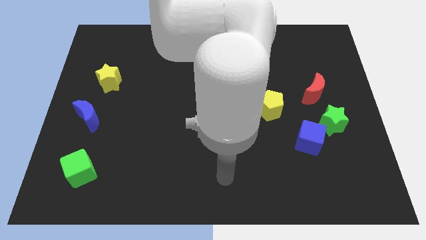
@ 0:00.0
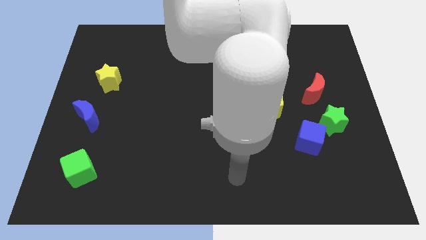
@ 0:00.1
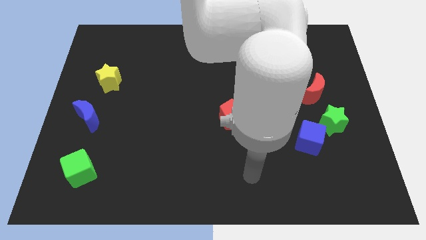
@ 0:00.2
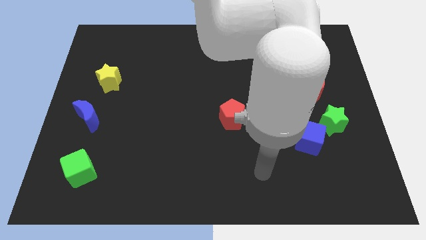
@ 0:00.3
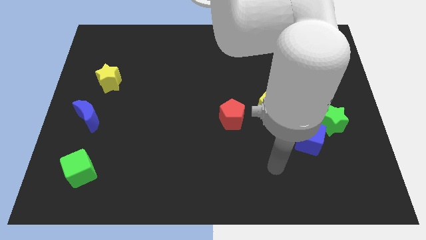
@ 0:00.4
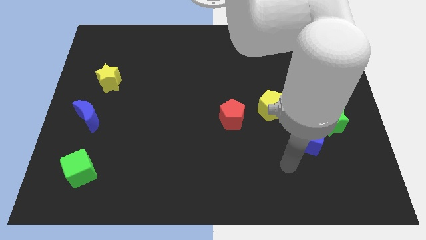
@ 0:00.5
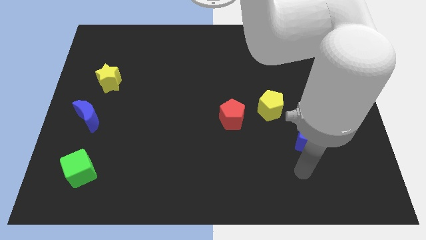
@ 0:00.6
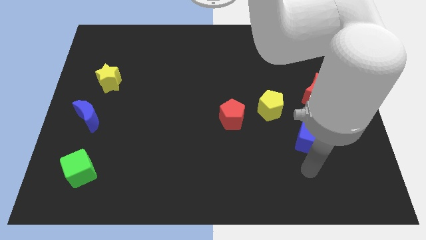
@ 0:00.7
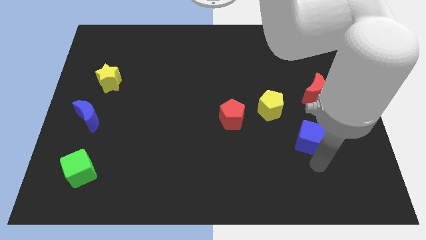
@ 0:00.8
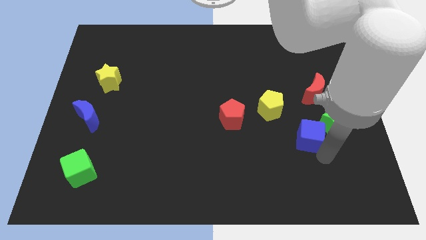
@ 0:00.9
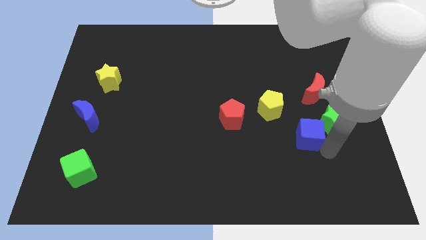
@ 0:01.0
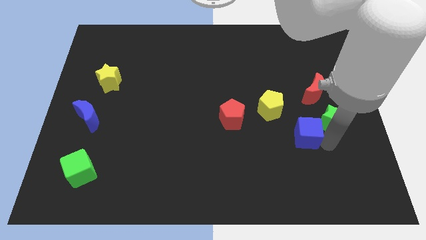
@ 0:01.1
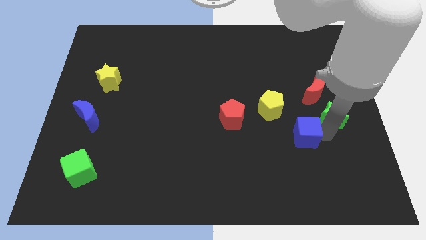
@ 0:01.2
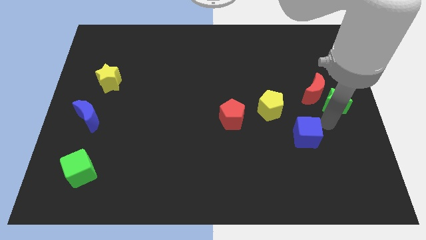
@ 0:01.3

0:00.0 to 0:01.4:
pull the blue cube apart from the green star

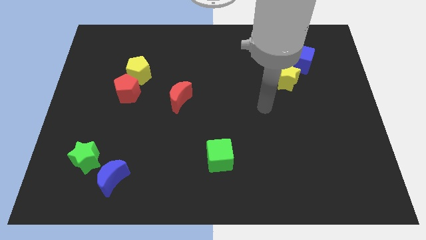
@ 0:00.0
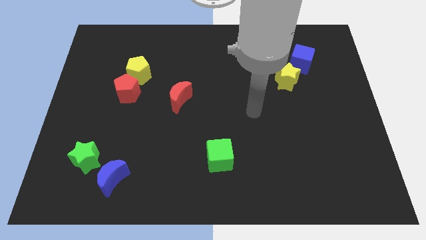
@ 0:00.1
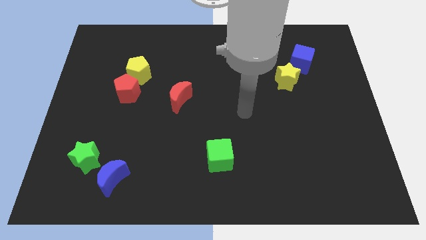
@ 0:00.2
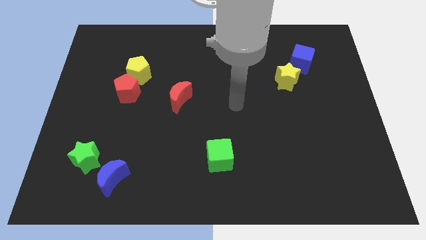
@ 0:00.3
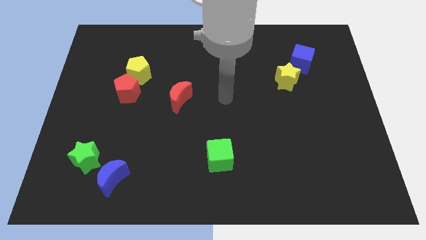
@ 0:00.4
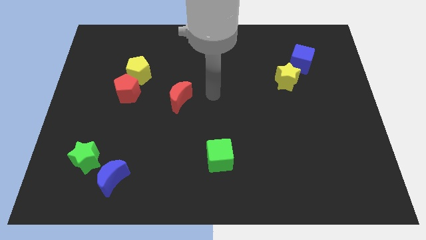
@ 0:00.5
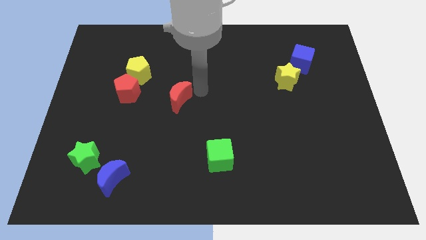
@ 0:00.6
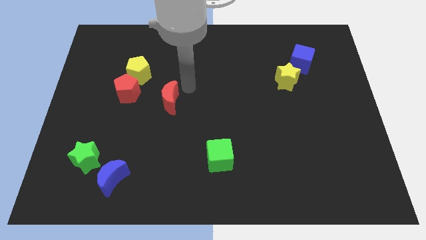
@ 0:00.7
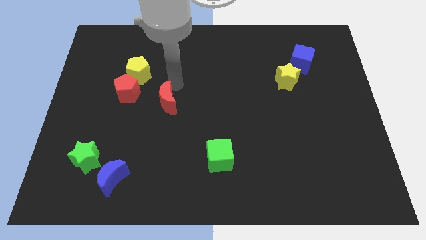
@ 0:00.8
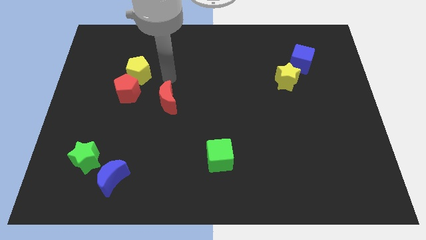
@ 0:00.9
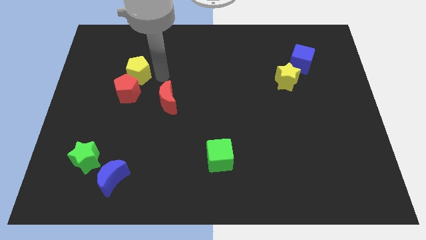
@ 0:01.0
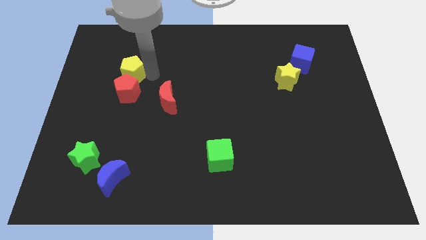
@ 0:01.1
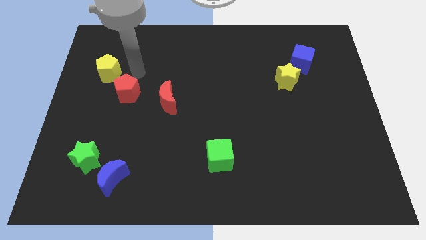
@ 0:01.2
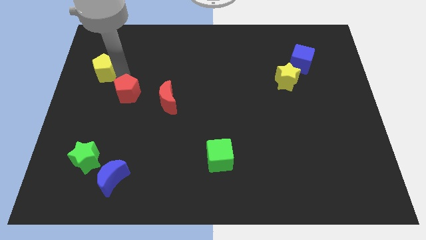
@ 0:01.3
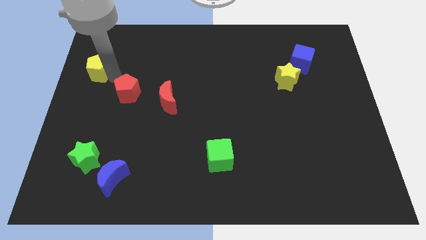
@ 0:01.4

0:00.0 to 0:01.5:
separate the red pentagon from the yellow pentagon

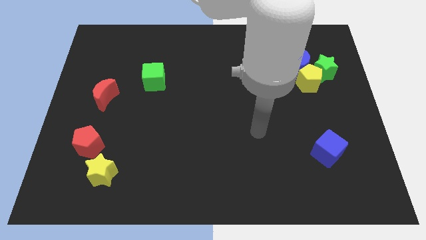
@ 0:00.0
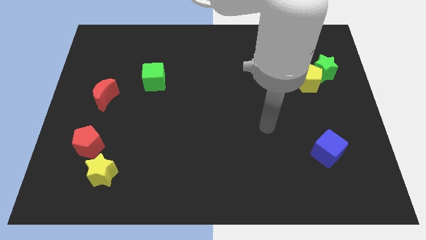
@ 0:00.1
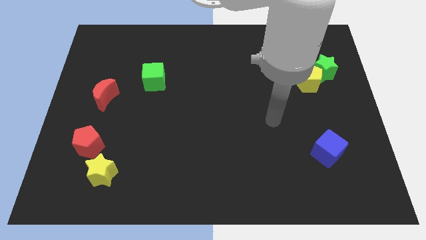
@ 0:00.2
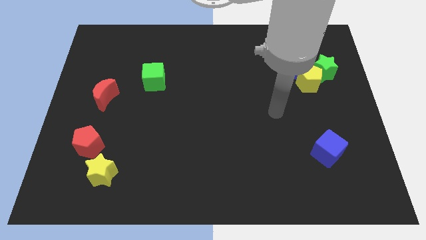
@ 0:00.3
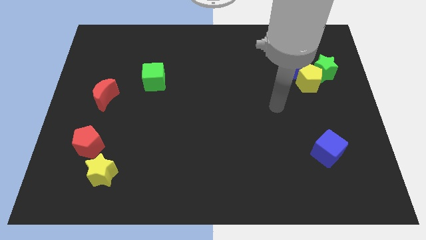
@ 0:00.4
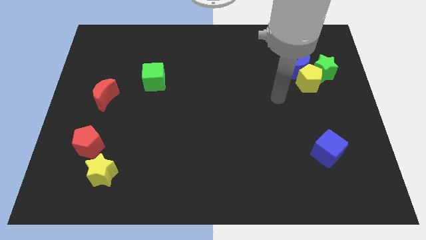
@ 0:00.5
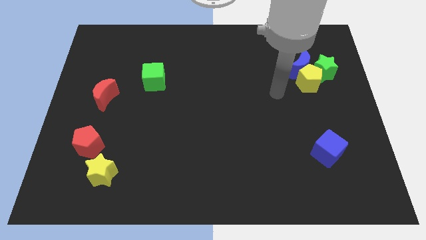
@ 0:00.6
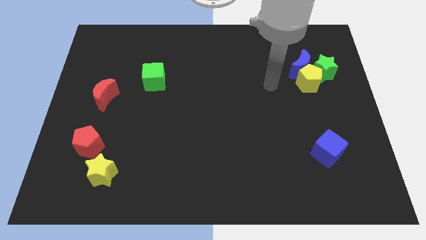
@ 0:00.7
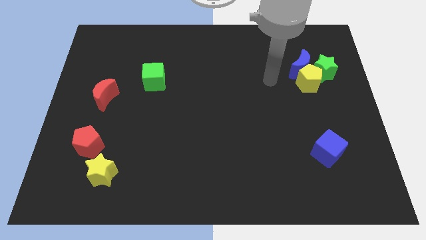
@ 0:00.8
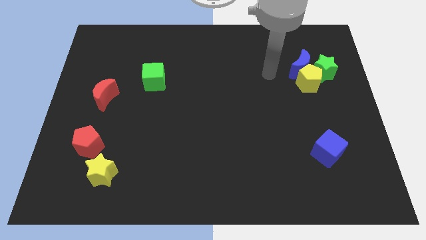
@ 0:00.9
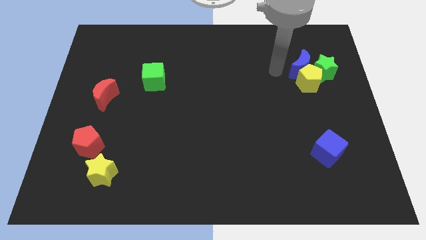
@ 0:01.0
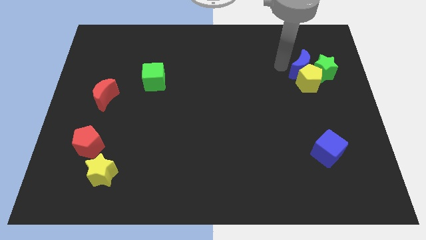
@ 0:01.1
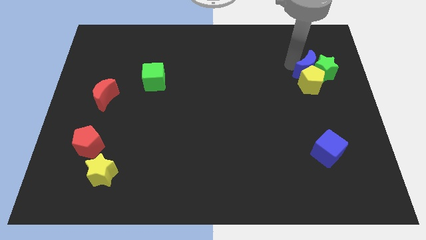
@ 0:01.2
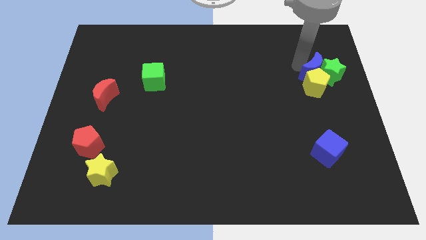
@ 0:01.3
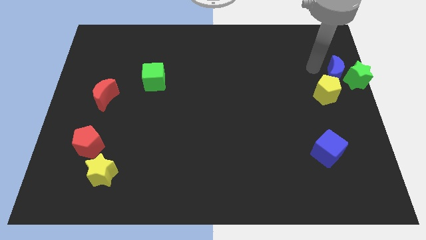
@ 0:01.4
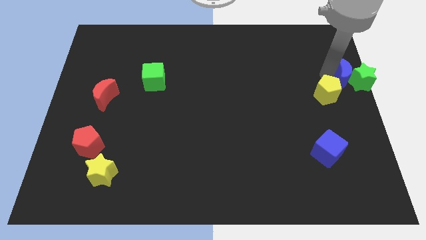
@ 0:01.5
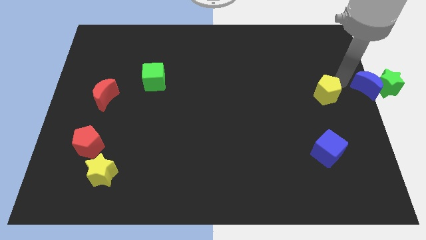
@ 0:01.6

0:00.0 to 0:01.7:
pull the yellow pentagon apart from the blue moon and green star

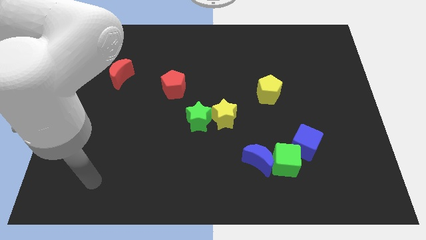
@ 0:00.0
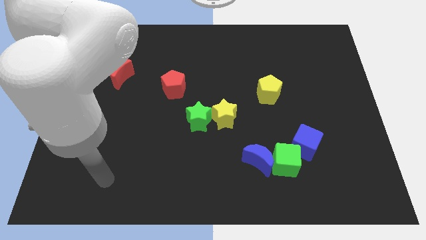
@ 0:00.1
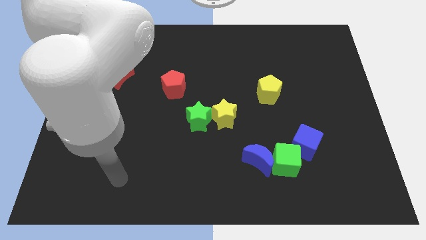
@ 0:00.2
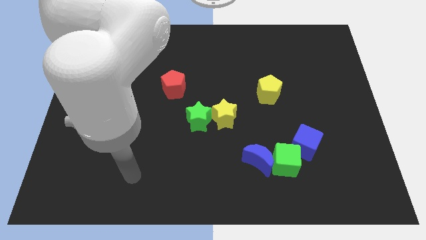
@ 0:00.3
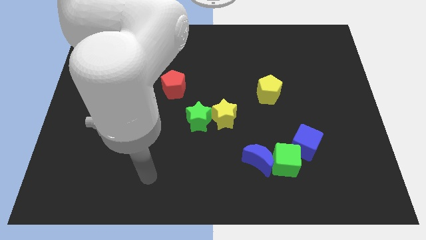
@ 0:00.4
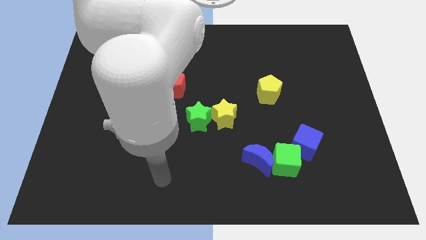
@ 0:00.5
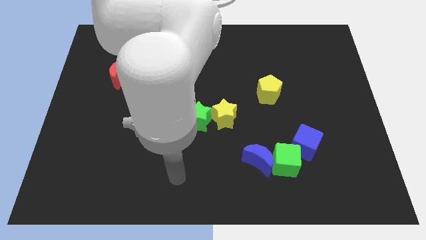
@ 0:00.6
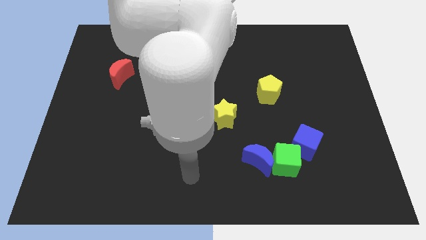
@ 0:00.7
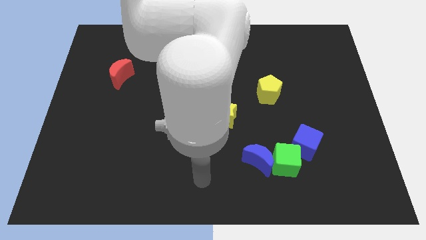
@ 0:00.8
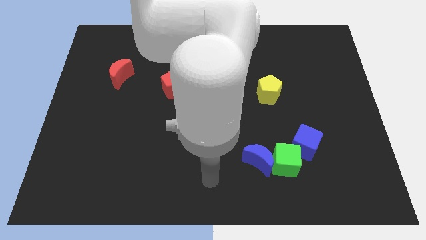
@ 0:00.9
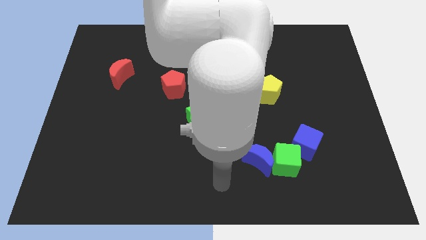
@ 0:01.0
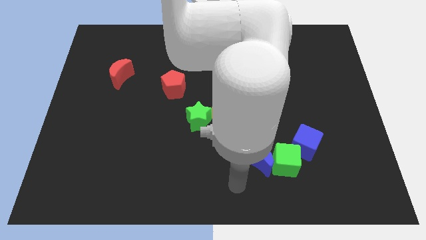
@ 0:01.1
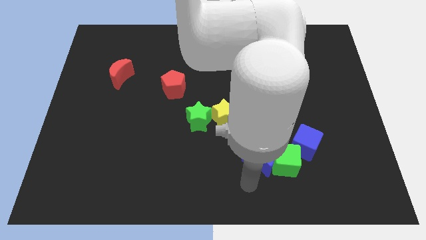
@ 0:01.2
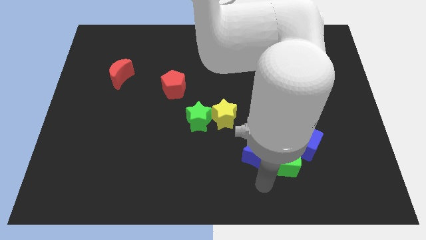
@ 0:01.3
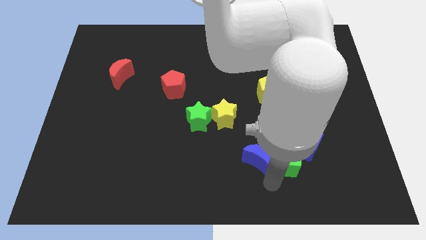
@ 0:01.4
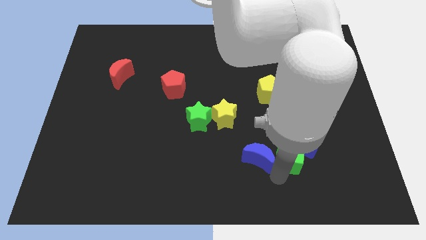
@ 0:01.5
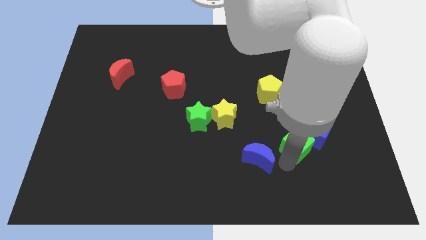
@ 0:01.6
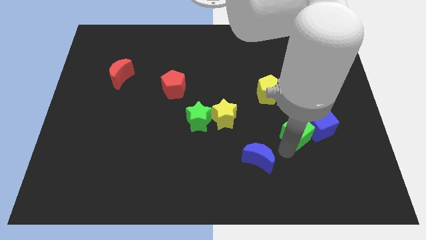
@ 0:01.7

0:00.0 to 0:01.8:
pull the blue moon apart from the green cube

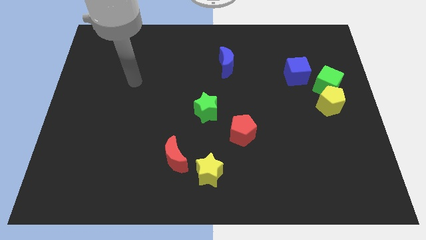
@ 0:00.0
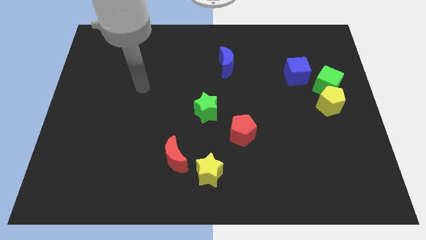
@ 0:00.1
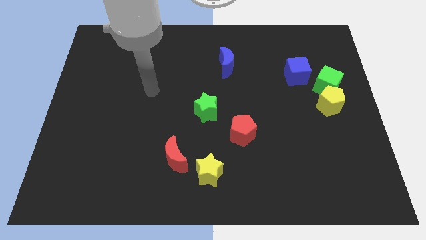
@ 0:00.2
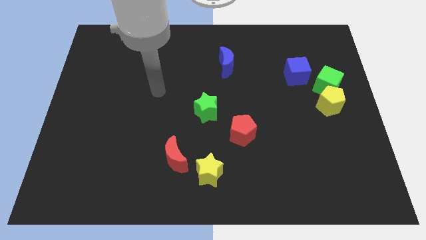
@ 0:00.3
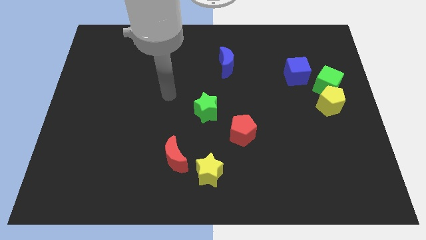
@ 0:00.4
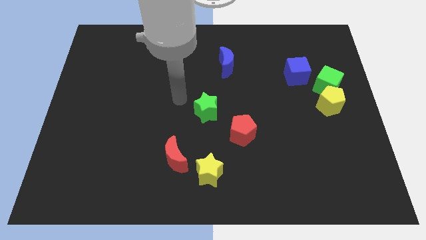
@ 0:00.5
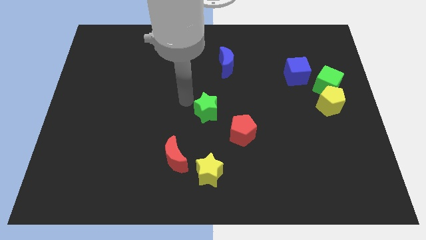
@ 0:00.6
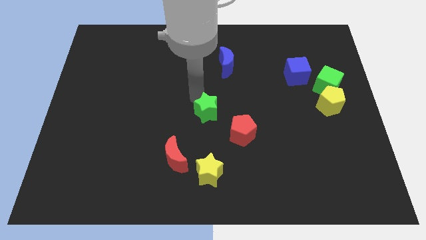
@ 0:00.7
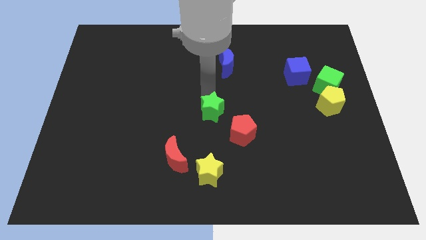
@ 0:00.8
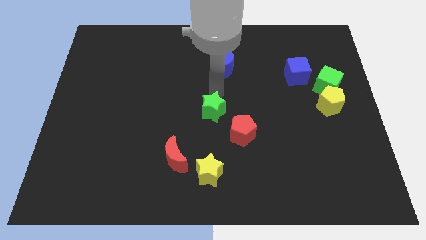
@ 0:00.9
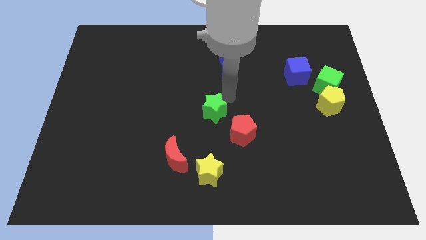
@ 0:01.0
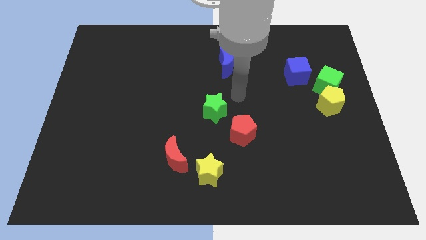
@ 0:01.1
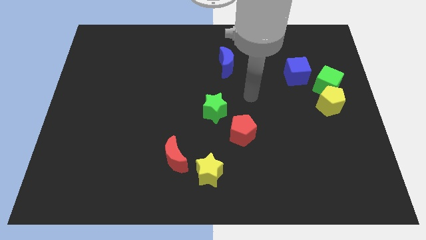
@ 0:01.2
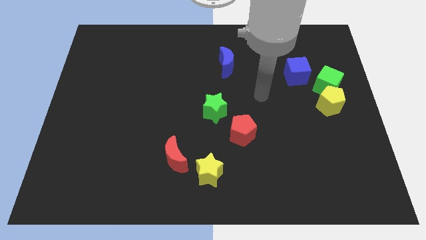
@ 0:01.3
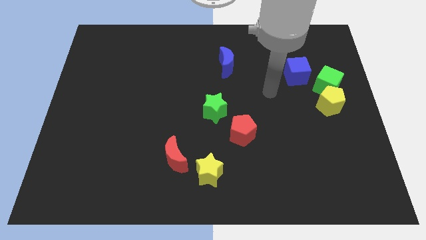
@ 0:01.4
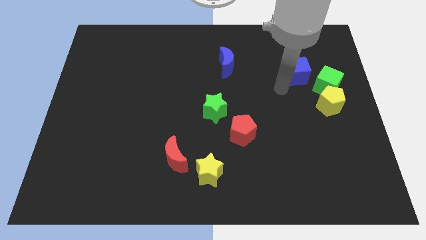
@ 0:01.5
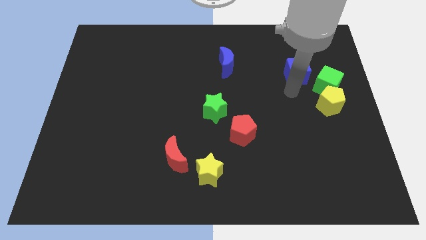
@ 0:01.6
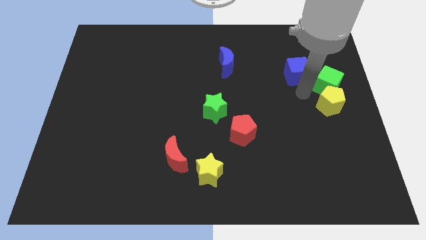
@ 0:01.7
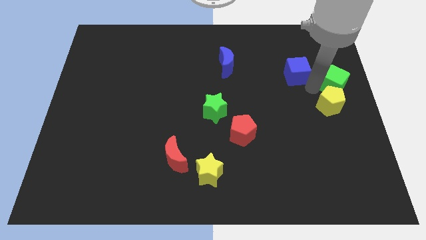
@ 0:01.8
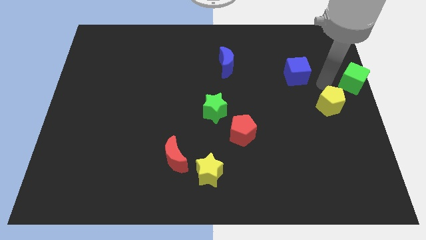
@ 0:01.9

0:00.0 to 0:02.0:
move the yellow pentagon away from the green cube

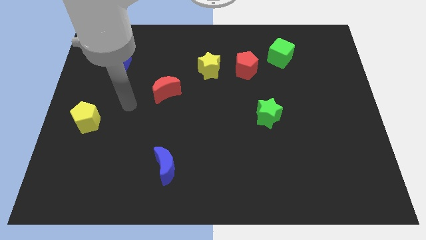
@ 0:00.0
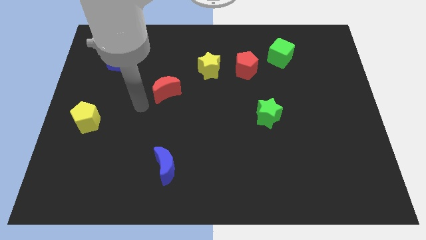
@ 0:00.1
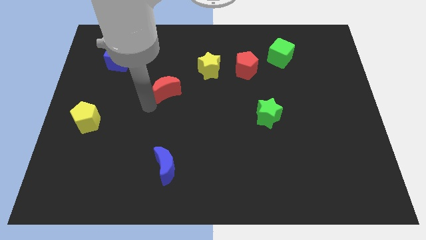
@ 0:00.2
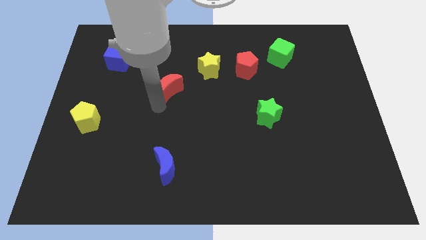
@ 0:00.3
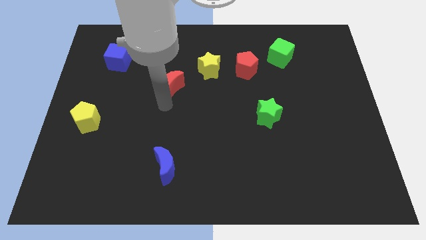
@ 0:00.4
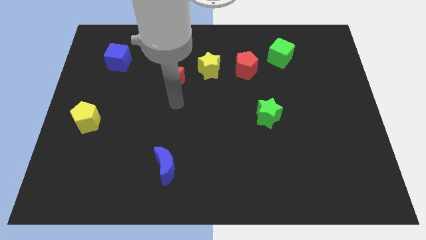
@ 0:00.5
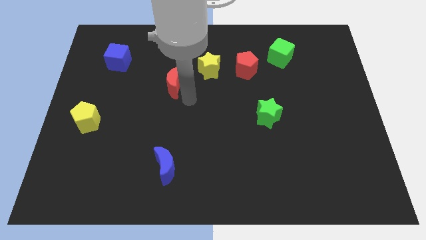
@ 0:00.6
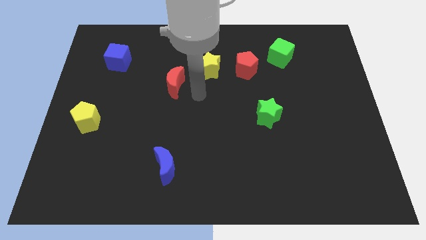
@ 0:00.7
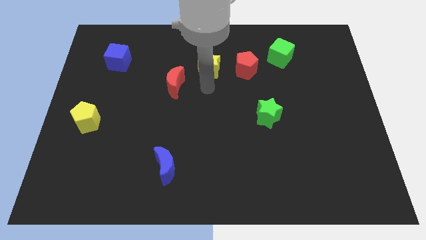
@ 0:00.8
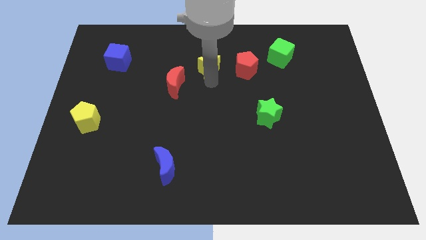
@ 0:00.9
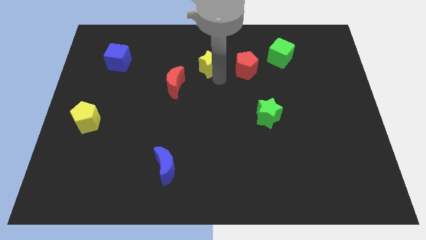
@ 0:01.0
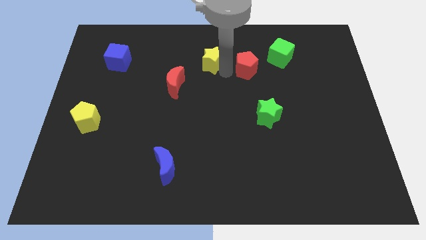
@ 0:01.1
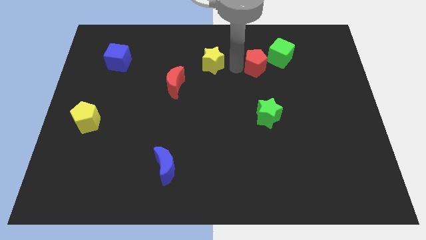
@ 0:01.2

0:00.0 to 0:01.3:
separate the yellow star from the red pentagon
